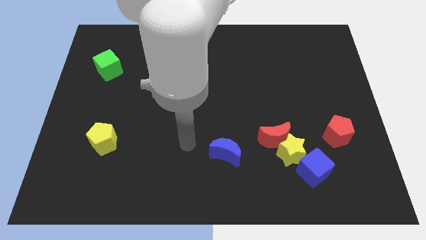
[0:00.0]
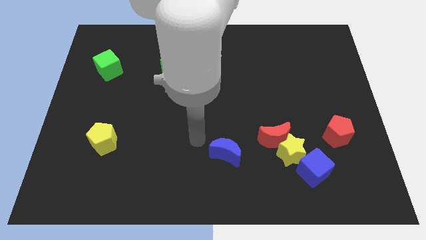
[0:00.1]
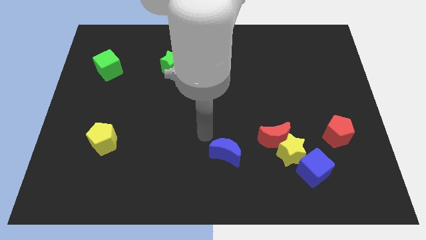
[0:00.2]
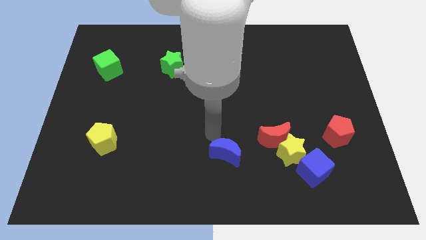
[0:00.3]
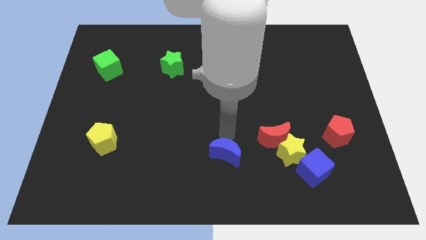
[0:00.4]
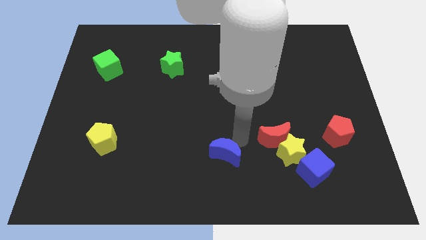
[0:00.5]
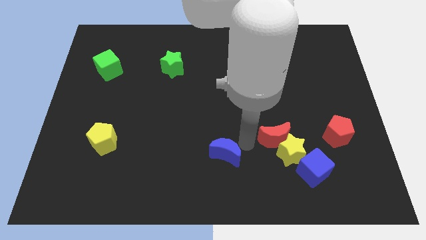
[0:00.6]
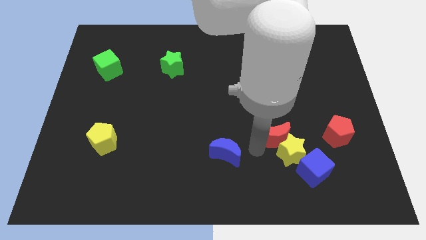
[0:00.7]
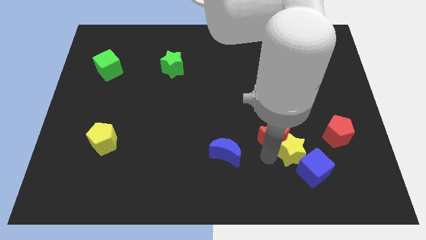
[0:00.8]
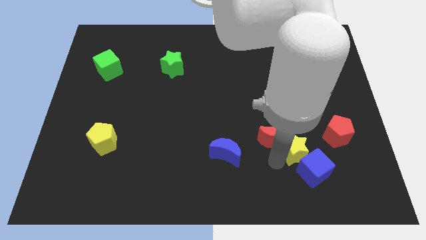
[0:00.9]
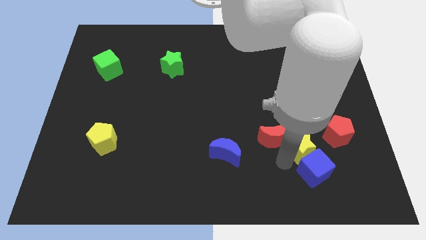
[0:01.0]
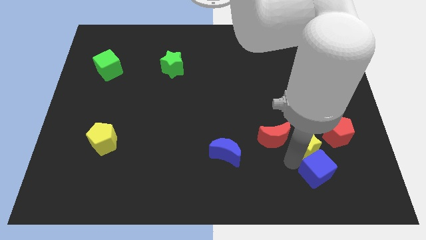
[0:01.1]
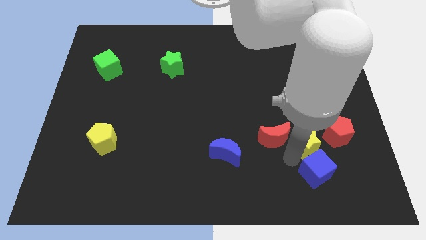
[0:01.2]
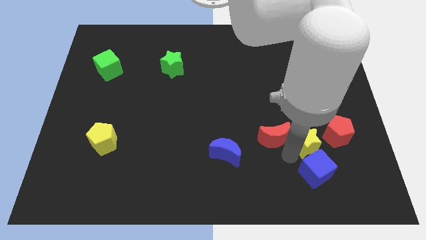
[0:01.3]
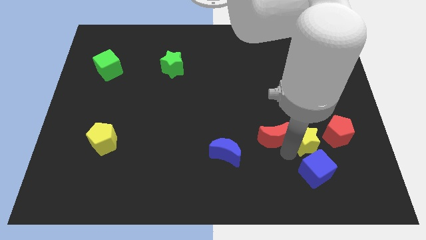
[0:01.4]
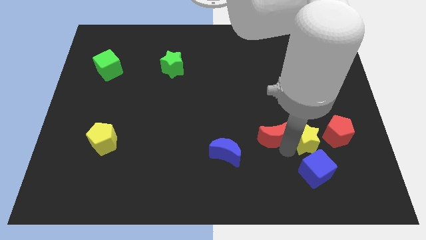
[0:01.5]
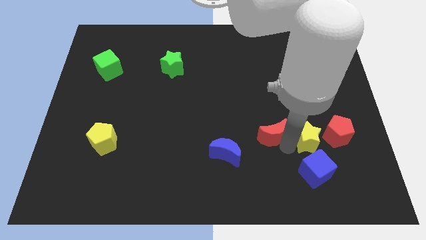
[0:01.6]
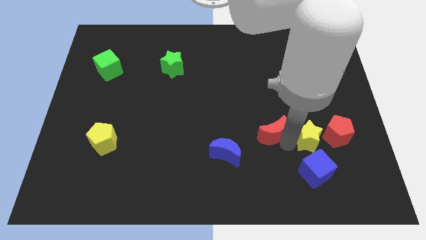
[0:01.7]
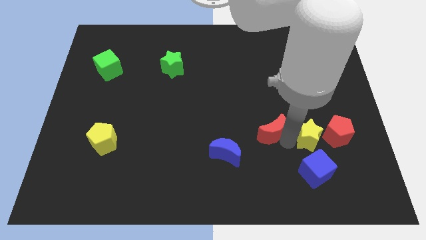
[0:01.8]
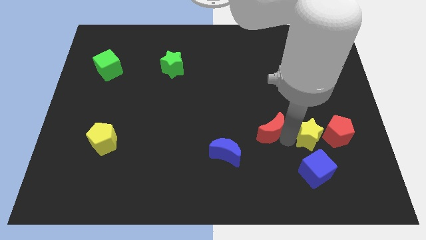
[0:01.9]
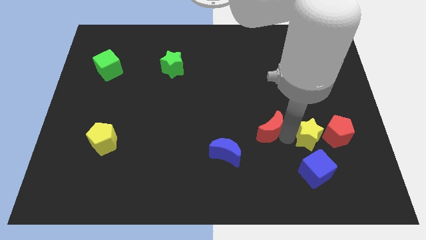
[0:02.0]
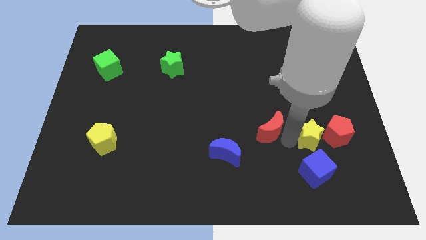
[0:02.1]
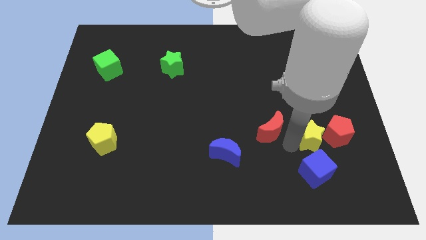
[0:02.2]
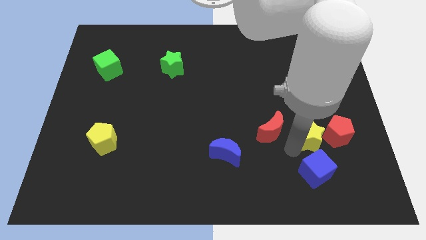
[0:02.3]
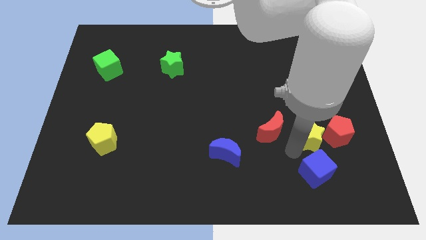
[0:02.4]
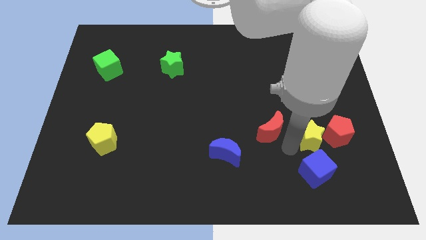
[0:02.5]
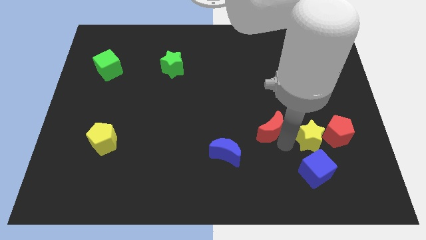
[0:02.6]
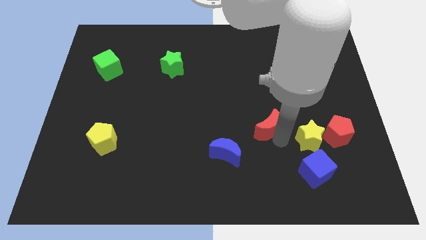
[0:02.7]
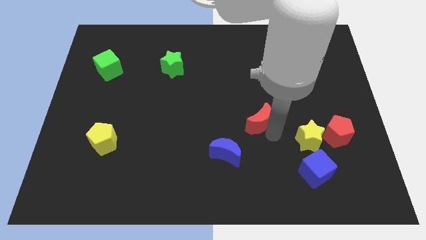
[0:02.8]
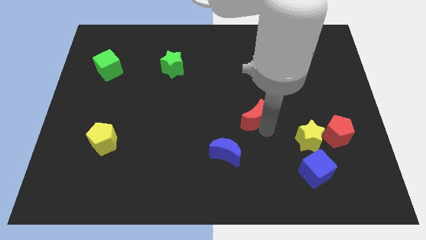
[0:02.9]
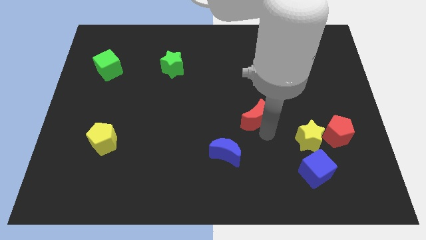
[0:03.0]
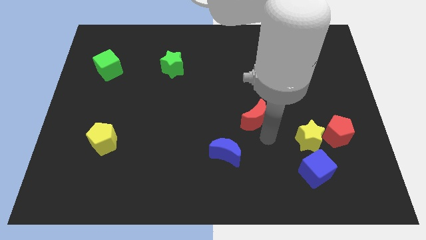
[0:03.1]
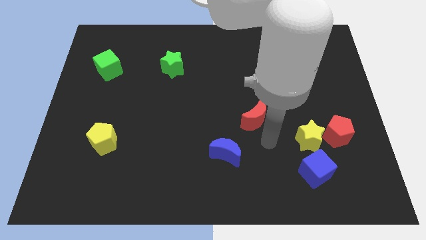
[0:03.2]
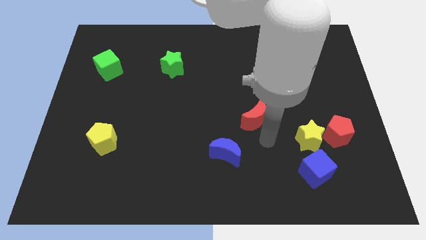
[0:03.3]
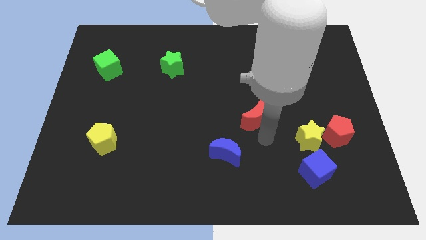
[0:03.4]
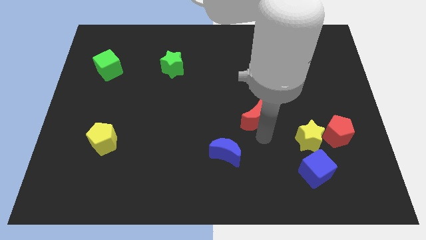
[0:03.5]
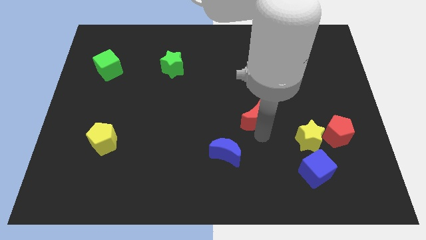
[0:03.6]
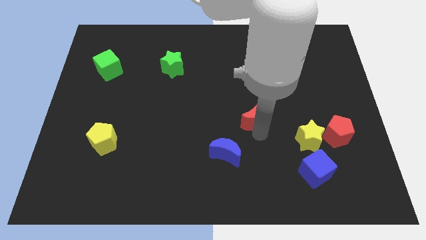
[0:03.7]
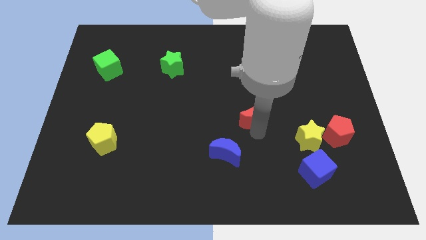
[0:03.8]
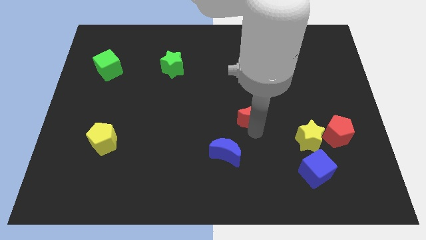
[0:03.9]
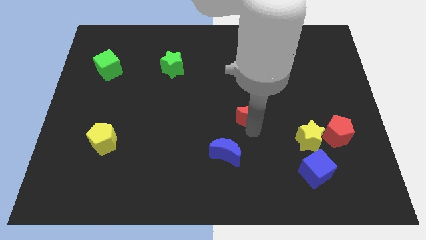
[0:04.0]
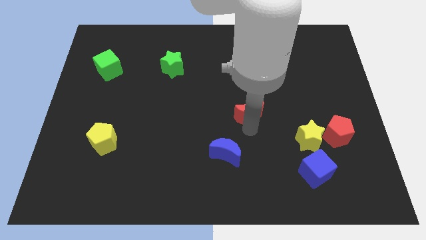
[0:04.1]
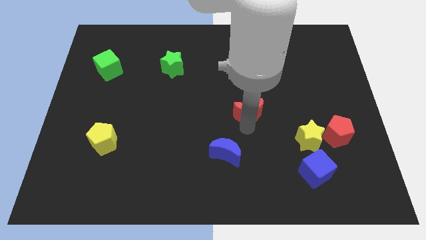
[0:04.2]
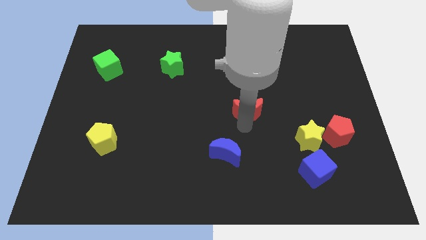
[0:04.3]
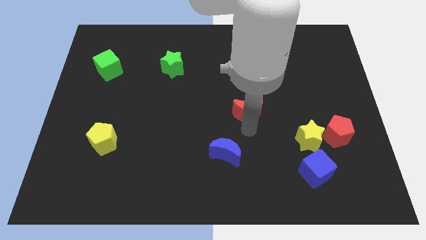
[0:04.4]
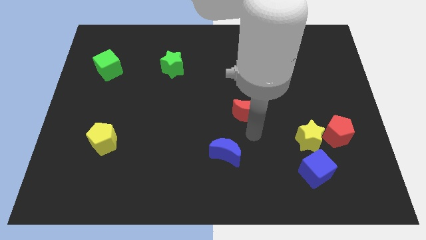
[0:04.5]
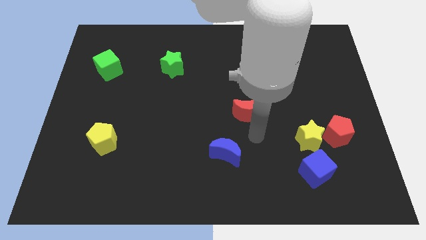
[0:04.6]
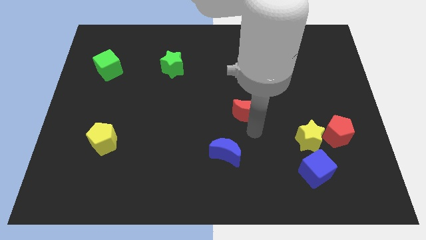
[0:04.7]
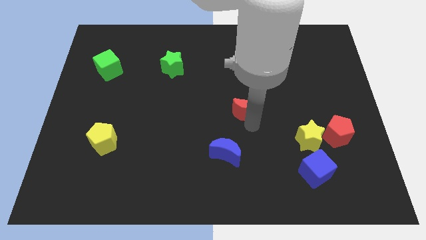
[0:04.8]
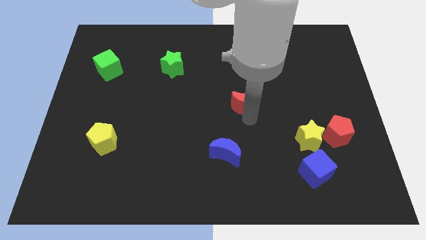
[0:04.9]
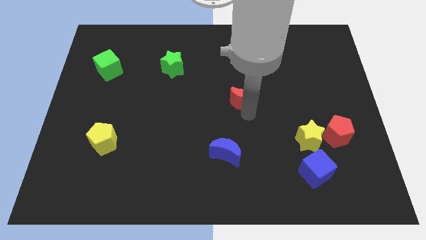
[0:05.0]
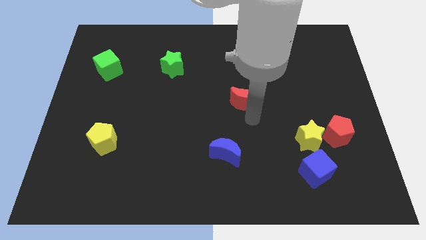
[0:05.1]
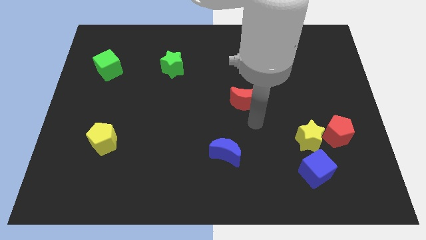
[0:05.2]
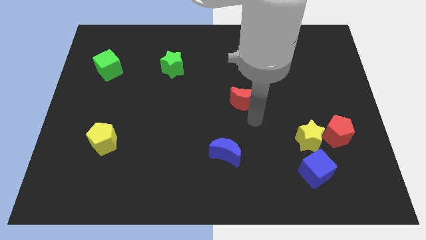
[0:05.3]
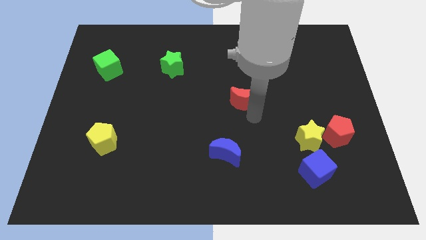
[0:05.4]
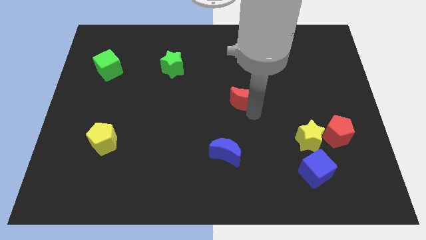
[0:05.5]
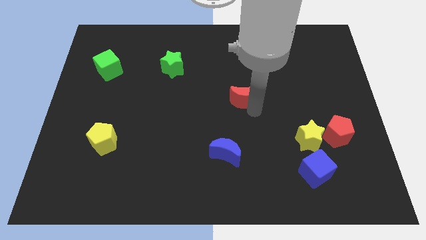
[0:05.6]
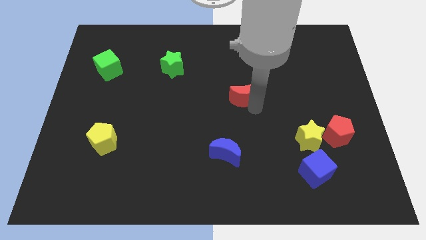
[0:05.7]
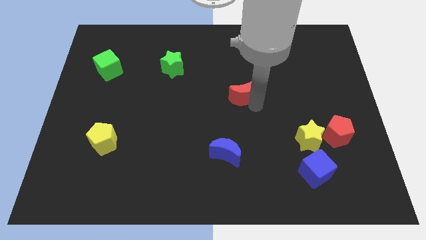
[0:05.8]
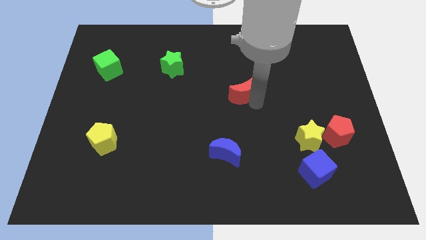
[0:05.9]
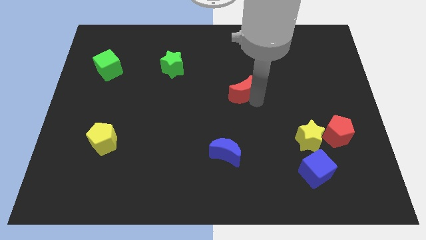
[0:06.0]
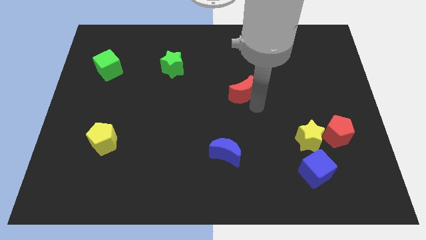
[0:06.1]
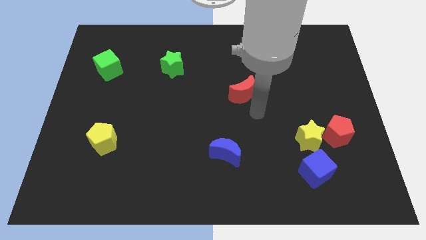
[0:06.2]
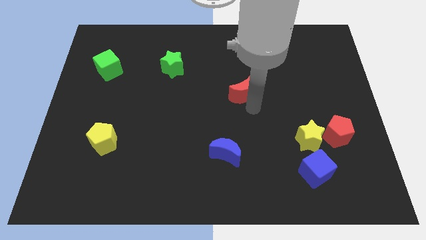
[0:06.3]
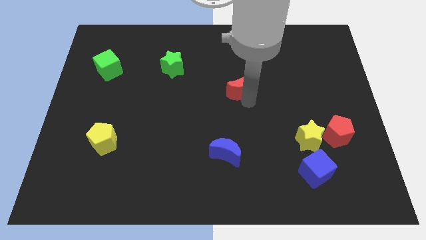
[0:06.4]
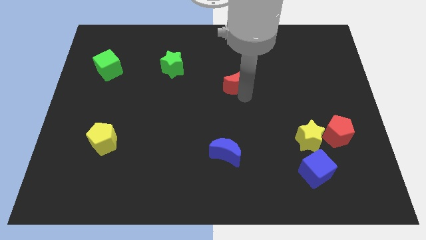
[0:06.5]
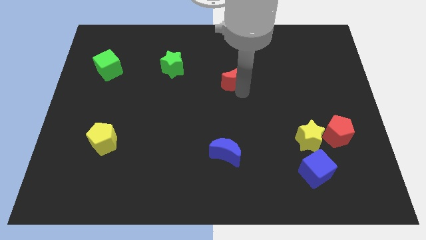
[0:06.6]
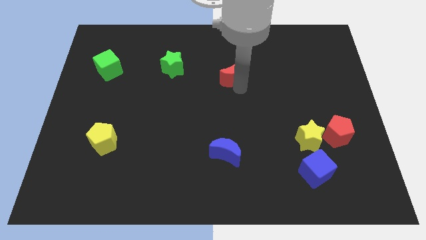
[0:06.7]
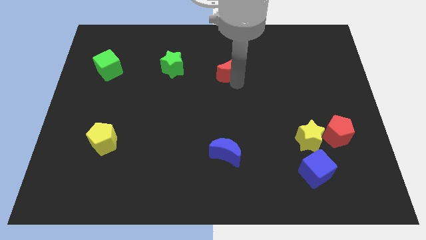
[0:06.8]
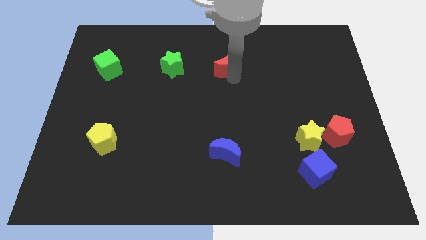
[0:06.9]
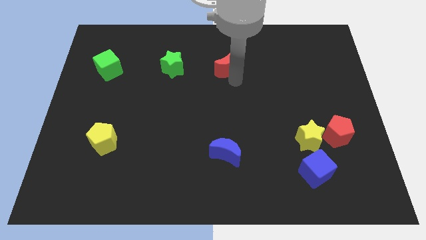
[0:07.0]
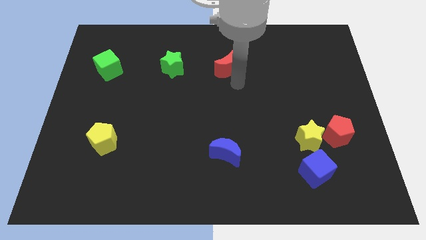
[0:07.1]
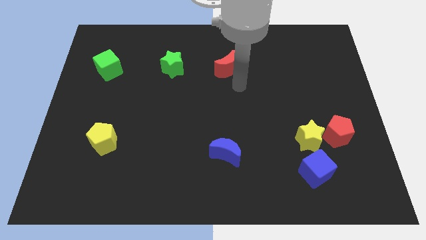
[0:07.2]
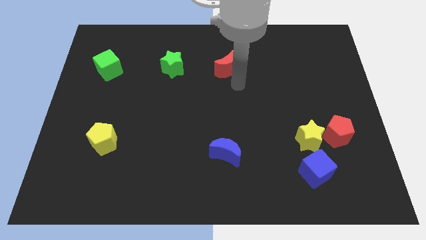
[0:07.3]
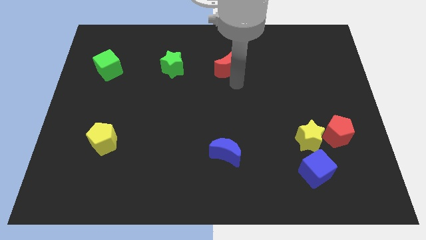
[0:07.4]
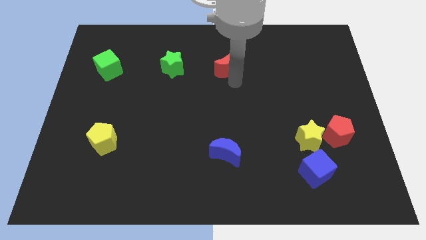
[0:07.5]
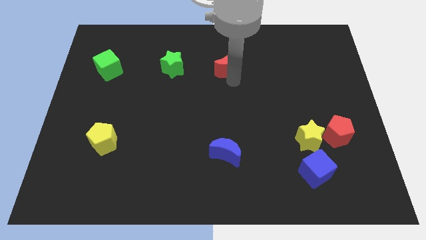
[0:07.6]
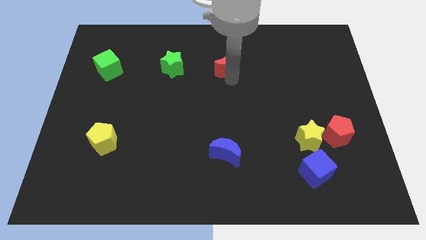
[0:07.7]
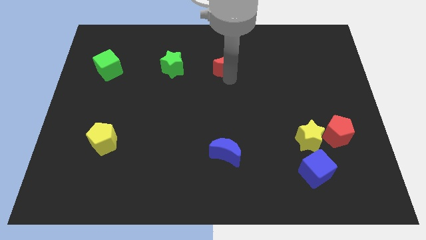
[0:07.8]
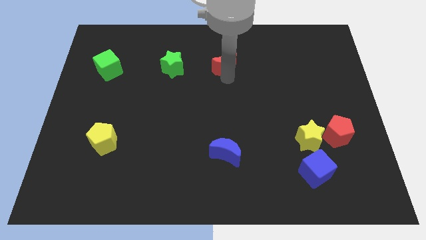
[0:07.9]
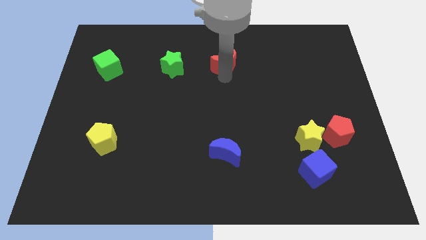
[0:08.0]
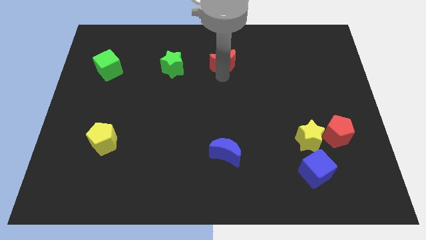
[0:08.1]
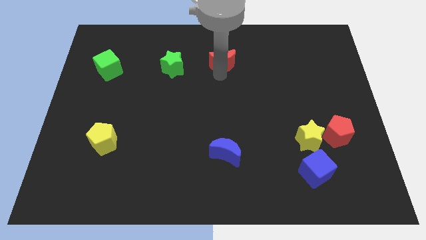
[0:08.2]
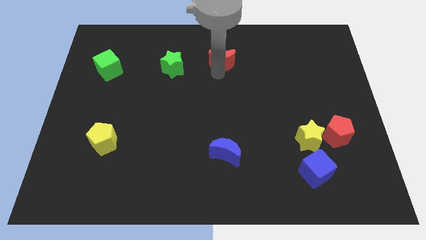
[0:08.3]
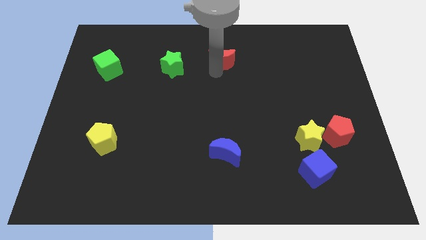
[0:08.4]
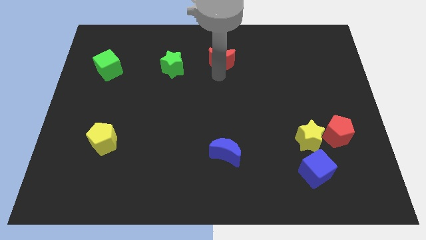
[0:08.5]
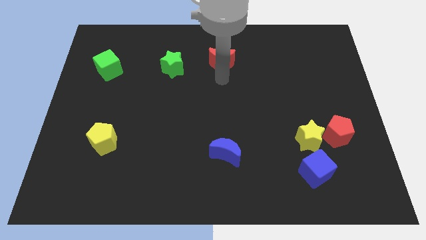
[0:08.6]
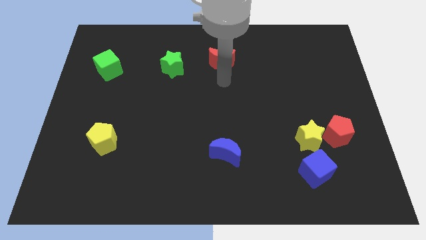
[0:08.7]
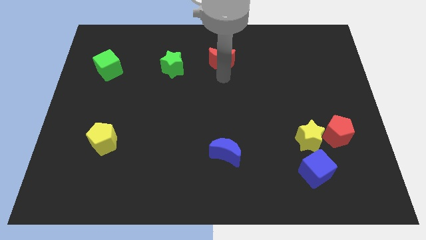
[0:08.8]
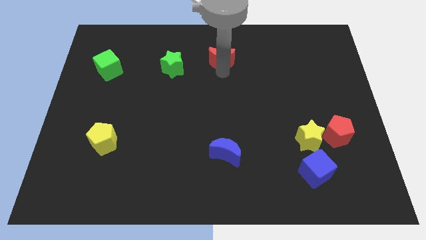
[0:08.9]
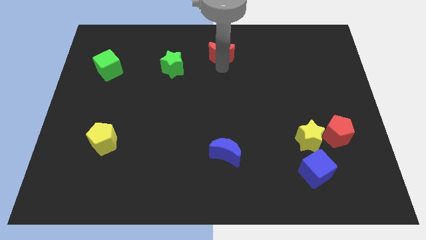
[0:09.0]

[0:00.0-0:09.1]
put the red moon to the top side
